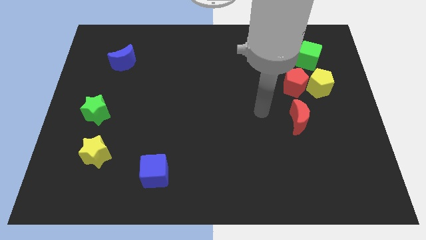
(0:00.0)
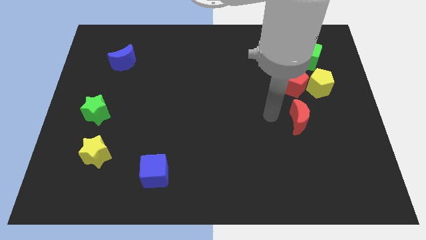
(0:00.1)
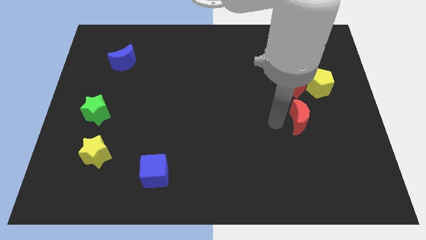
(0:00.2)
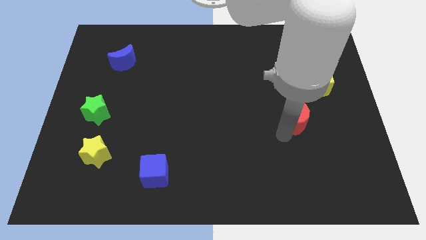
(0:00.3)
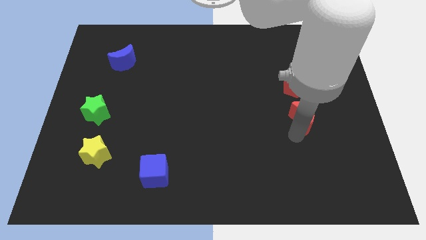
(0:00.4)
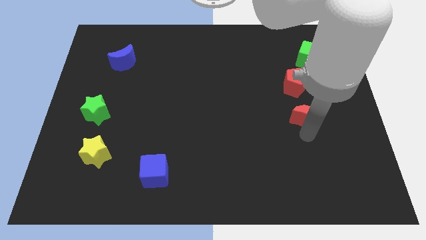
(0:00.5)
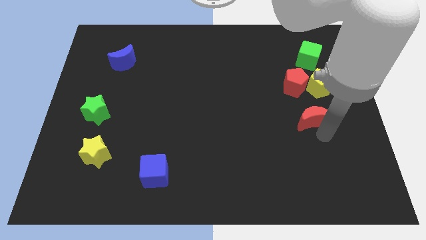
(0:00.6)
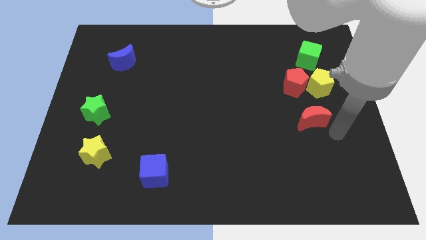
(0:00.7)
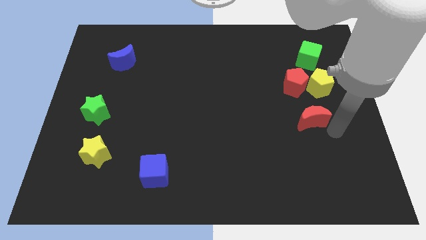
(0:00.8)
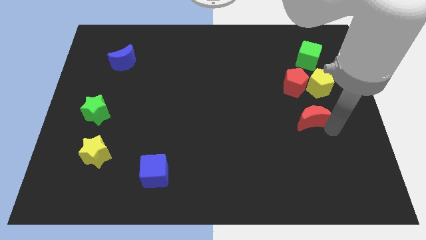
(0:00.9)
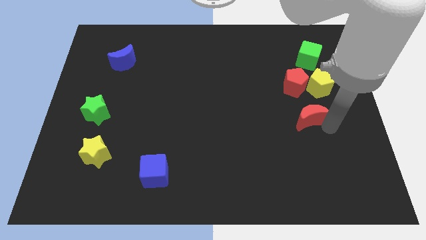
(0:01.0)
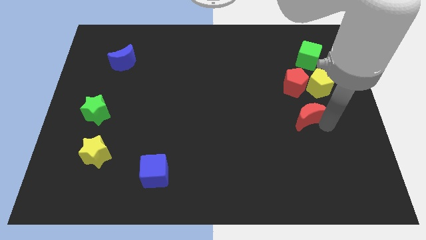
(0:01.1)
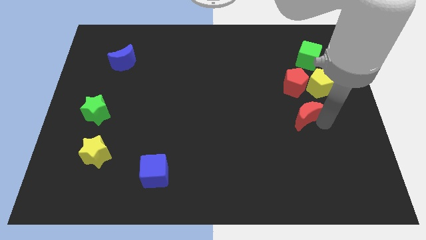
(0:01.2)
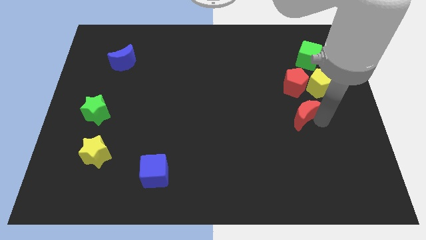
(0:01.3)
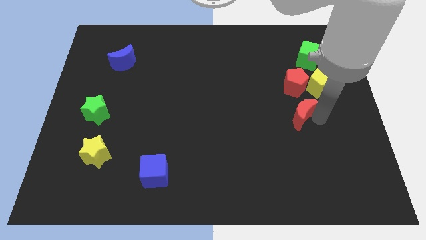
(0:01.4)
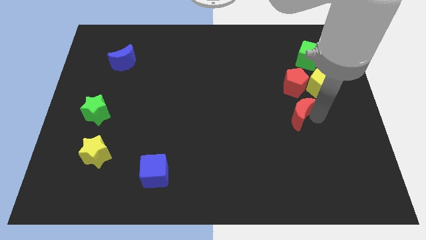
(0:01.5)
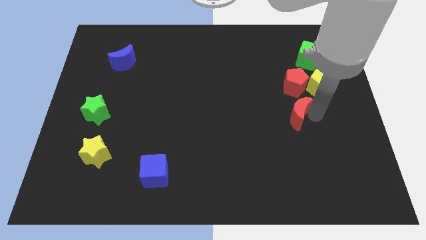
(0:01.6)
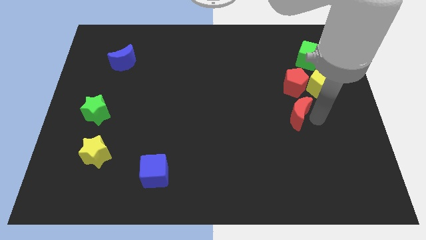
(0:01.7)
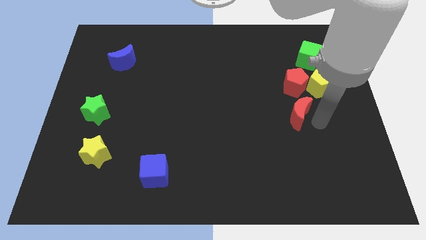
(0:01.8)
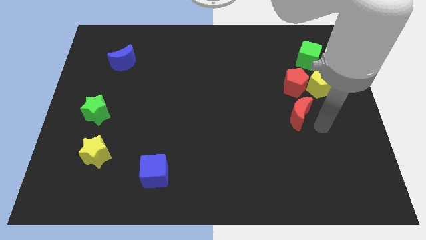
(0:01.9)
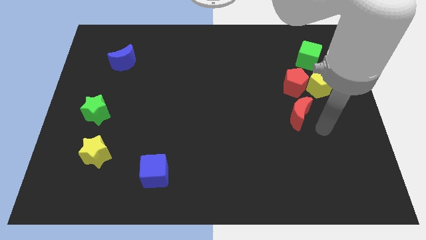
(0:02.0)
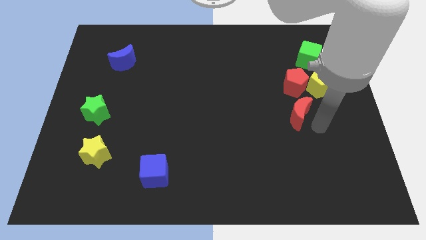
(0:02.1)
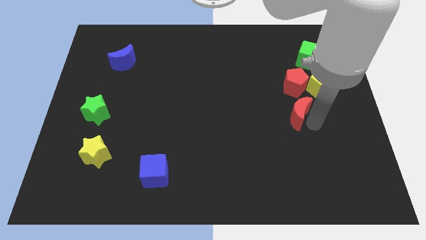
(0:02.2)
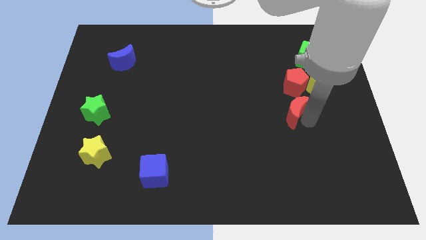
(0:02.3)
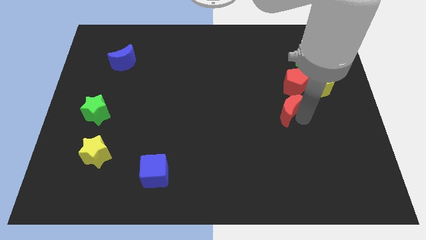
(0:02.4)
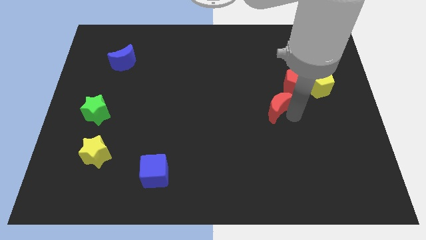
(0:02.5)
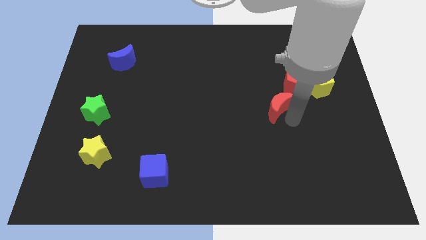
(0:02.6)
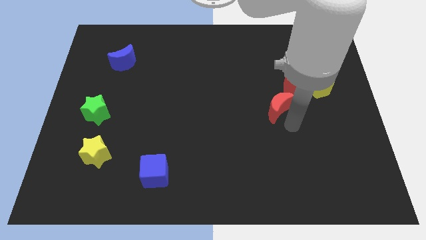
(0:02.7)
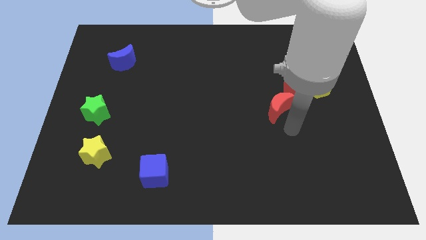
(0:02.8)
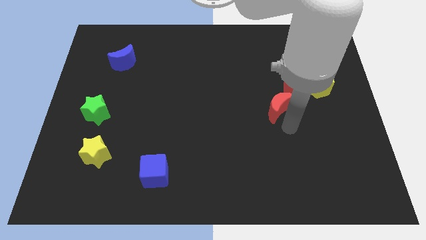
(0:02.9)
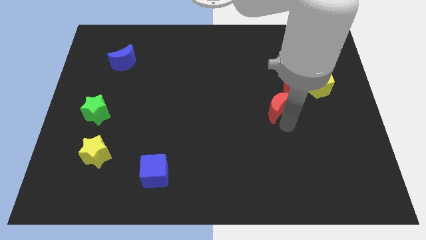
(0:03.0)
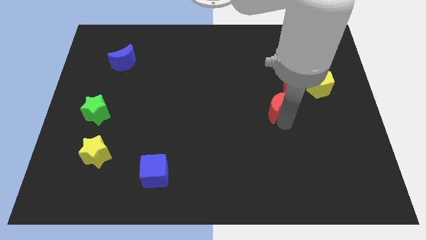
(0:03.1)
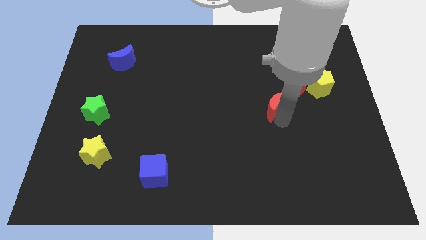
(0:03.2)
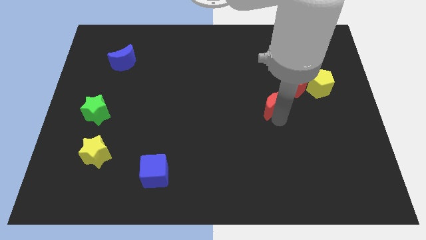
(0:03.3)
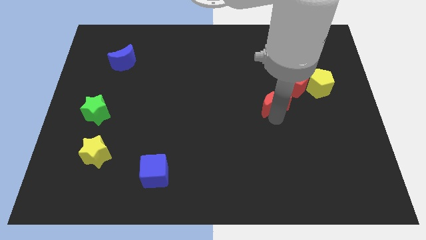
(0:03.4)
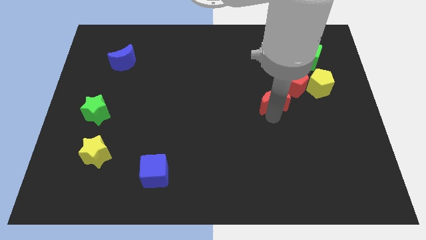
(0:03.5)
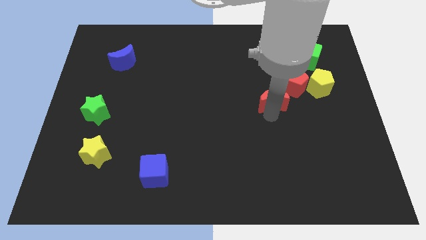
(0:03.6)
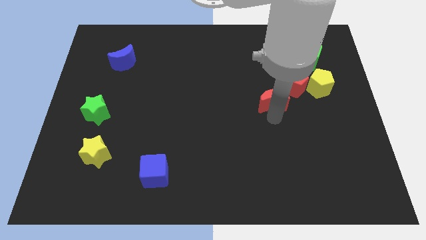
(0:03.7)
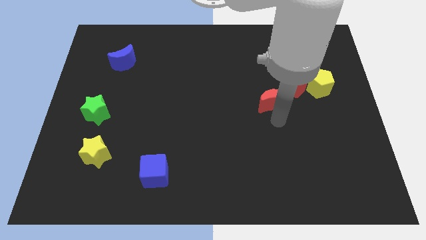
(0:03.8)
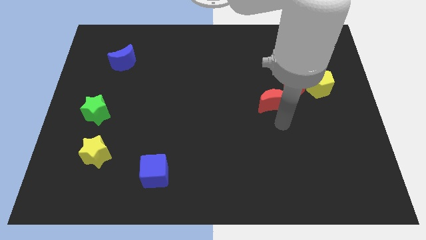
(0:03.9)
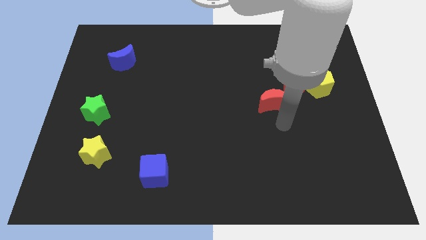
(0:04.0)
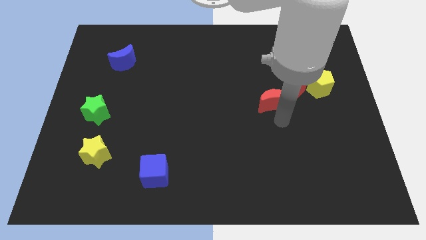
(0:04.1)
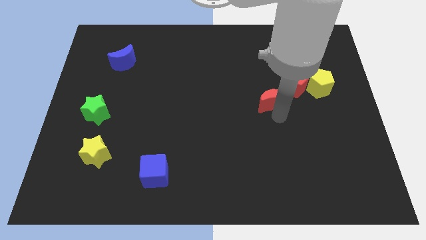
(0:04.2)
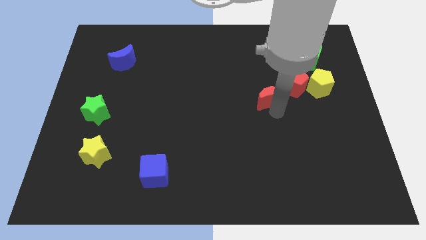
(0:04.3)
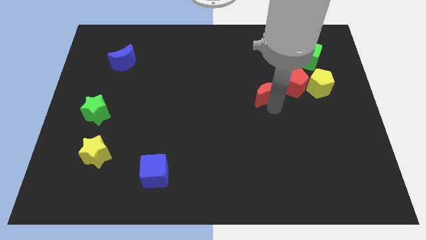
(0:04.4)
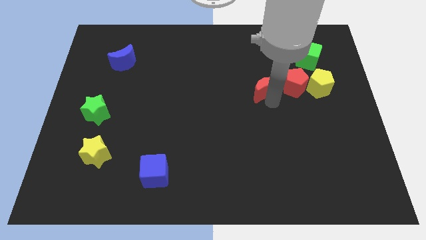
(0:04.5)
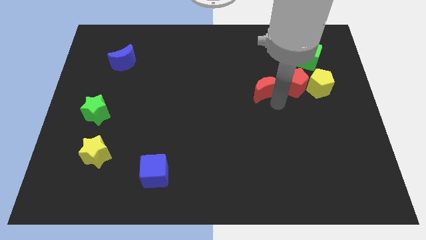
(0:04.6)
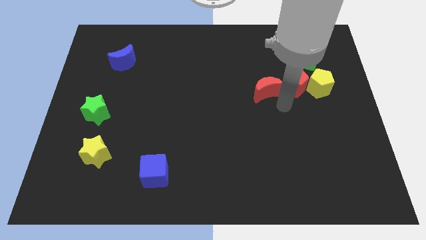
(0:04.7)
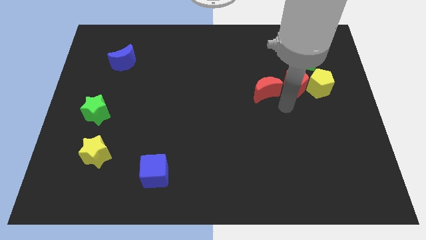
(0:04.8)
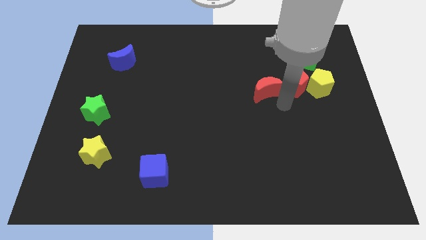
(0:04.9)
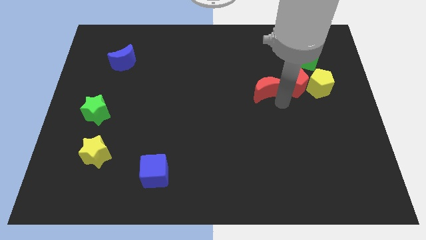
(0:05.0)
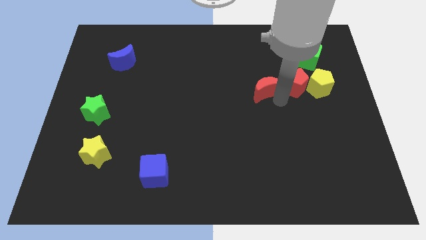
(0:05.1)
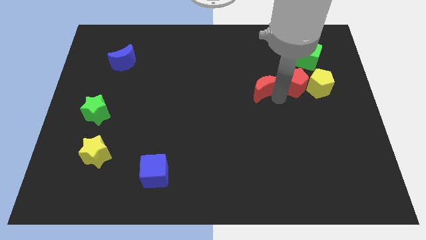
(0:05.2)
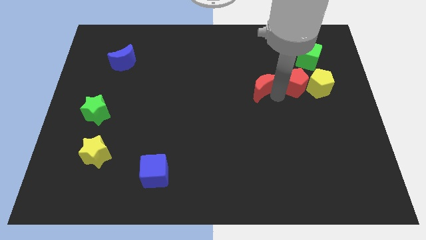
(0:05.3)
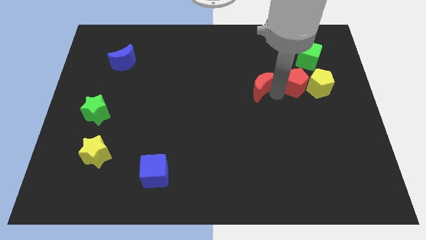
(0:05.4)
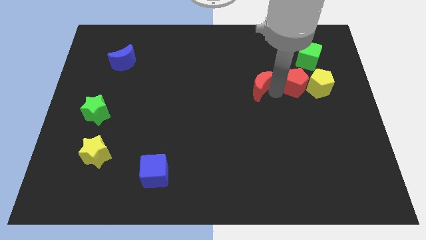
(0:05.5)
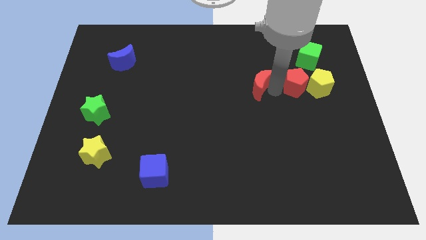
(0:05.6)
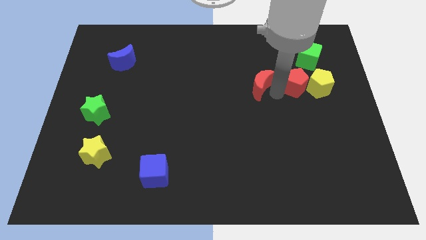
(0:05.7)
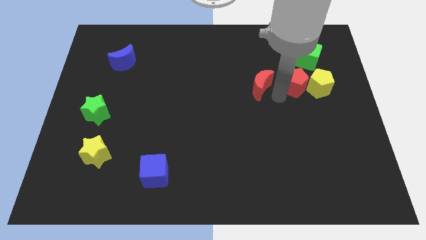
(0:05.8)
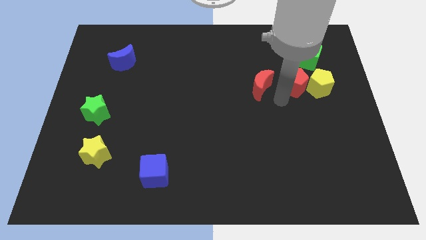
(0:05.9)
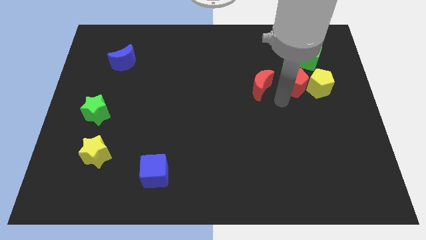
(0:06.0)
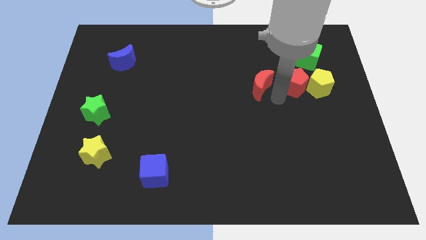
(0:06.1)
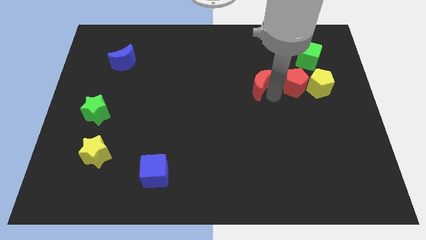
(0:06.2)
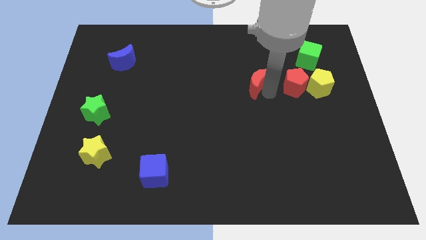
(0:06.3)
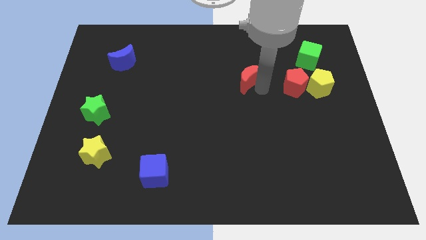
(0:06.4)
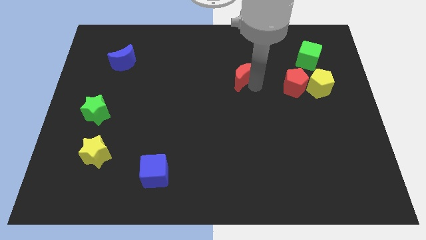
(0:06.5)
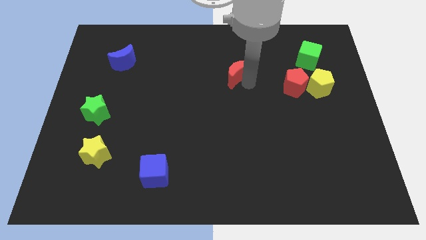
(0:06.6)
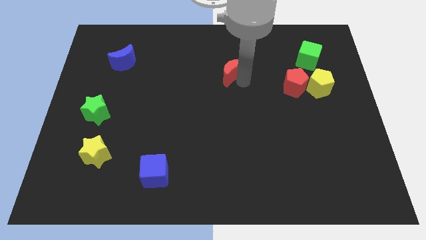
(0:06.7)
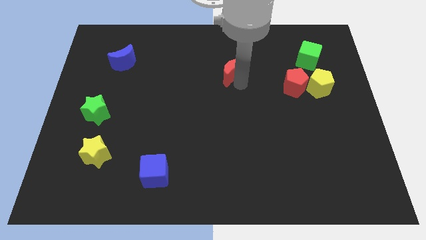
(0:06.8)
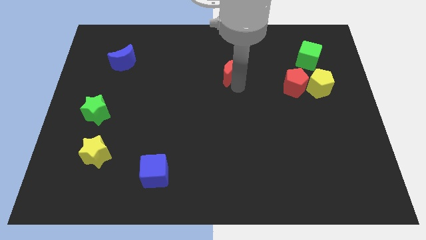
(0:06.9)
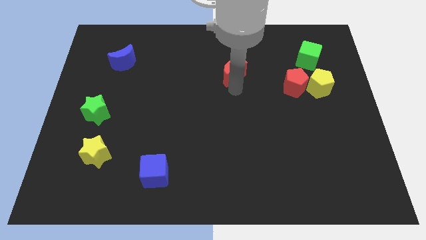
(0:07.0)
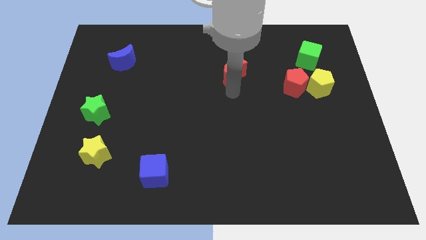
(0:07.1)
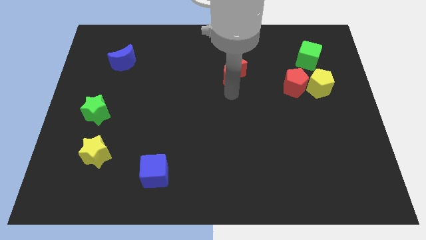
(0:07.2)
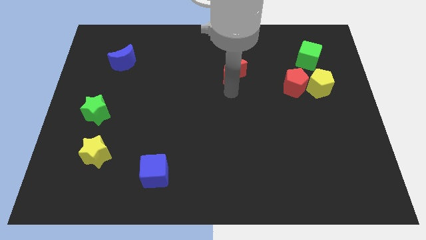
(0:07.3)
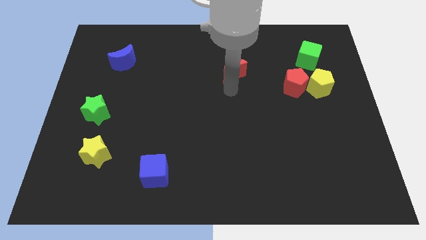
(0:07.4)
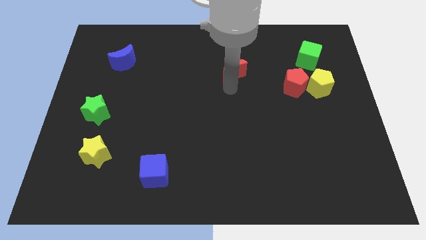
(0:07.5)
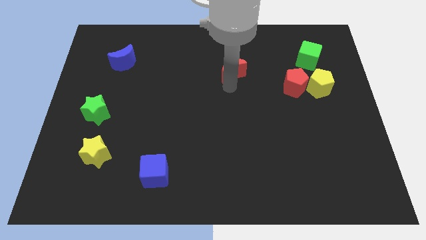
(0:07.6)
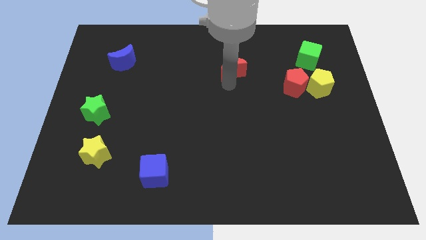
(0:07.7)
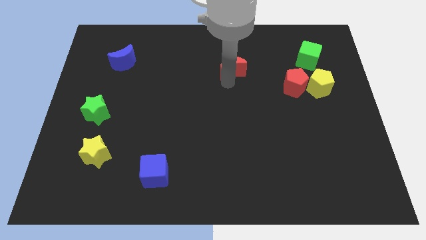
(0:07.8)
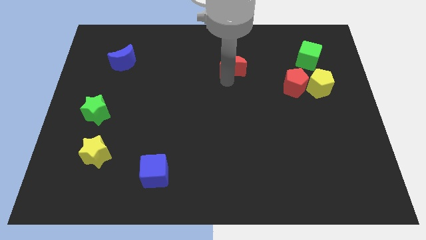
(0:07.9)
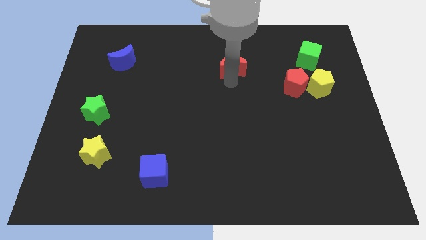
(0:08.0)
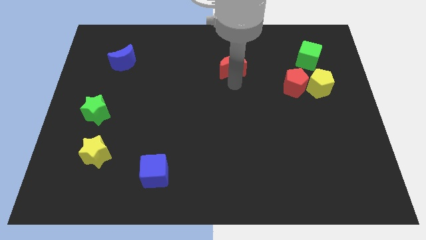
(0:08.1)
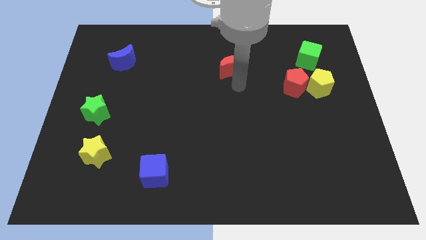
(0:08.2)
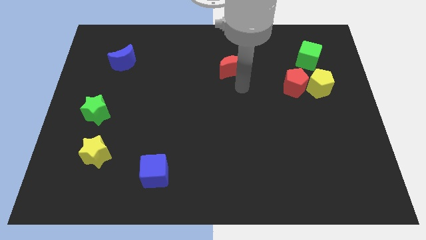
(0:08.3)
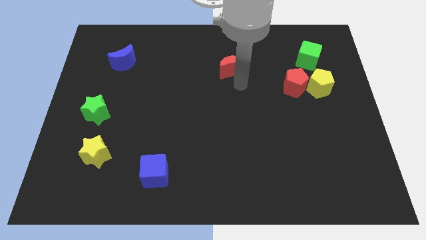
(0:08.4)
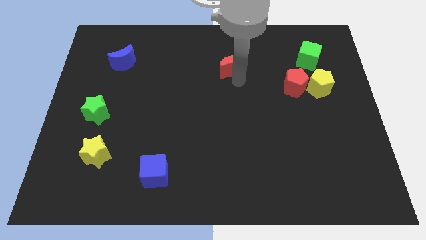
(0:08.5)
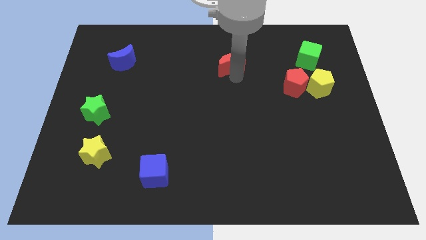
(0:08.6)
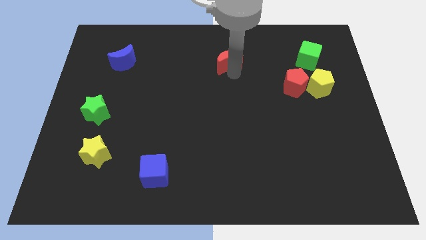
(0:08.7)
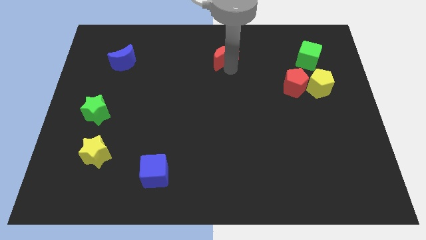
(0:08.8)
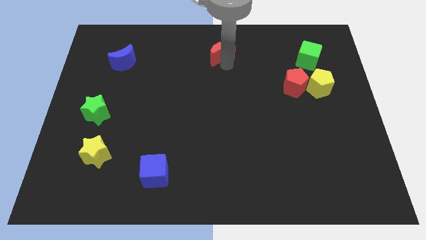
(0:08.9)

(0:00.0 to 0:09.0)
push the red moon to the top
